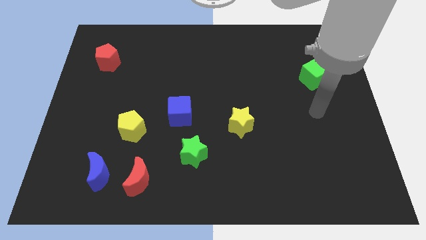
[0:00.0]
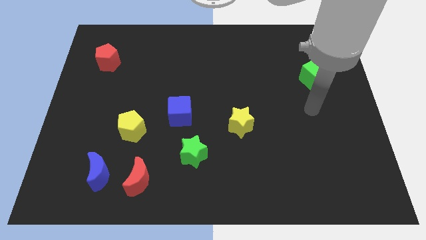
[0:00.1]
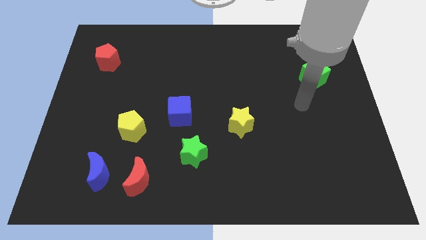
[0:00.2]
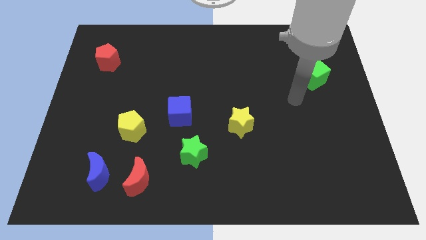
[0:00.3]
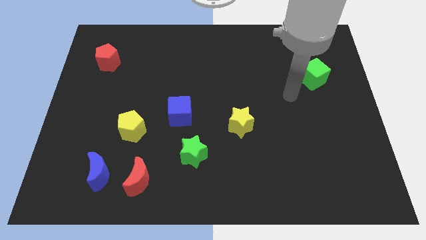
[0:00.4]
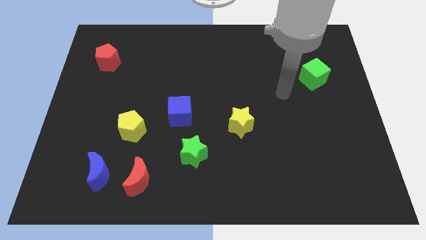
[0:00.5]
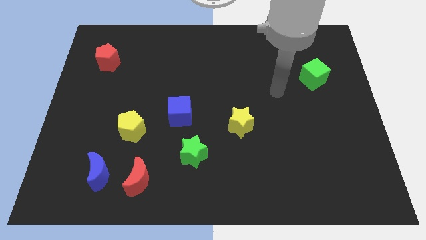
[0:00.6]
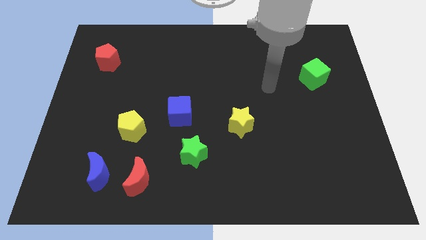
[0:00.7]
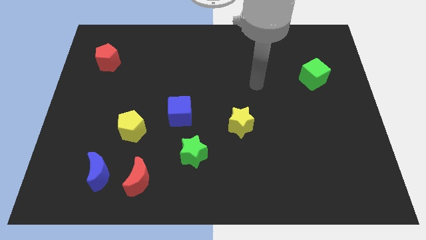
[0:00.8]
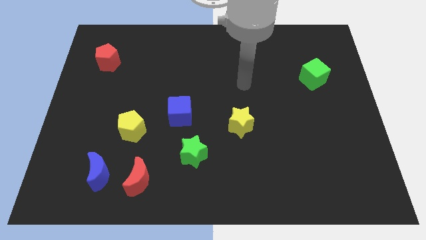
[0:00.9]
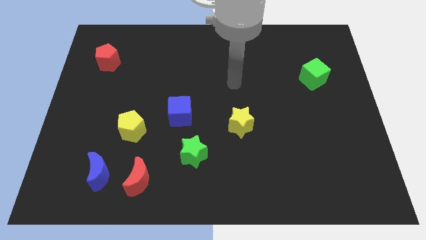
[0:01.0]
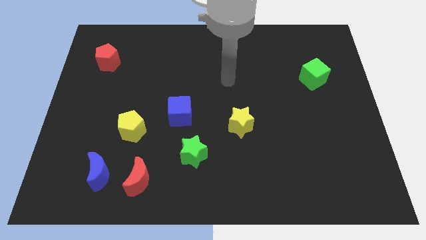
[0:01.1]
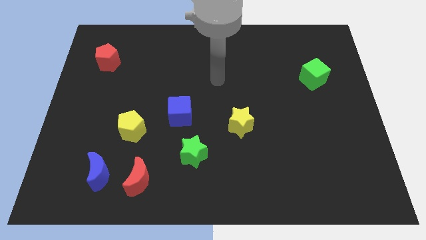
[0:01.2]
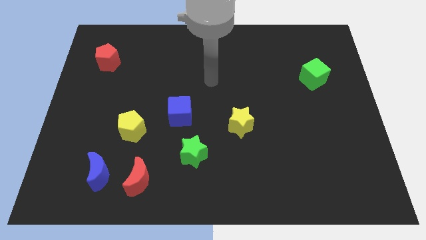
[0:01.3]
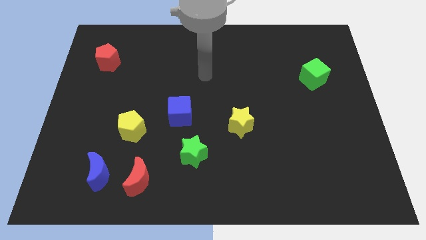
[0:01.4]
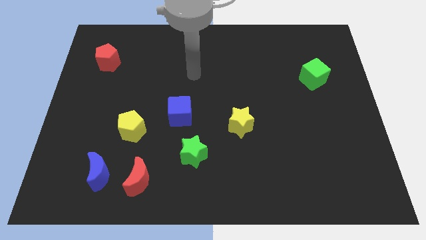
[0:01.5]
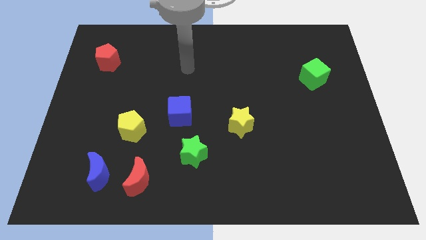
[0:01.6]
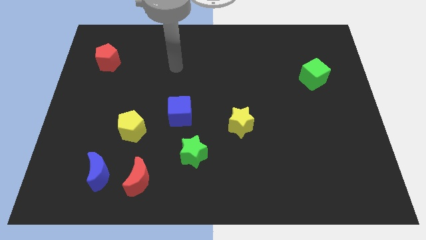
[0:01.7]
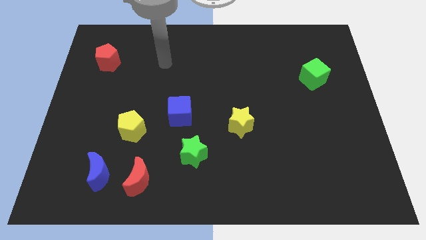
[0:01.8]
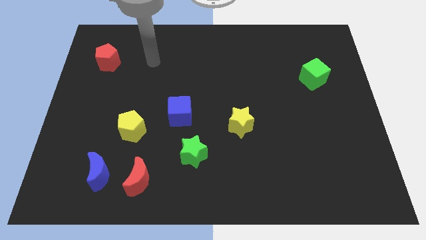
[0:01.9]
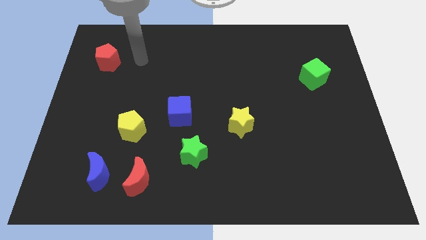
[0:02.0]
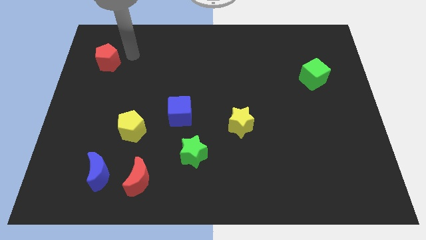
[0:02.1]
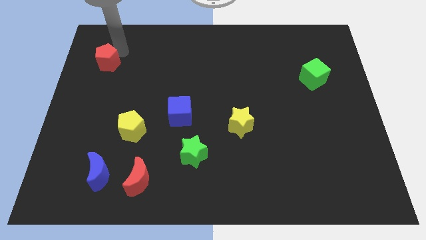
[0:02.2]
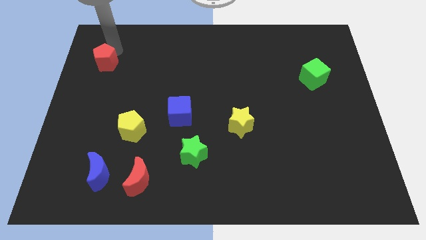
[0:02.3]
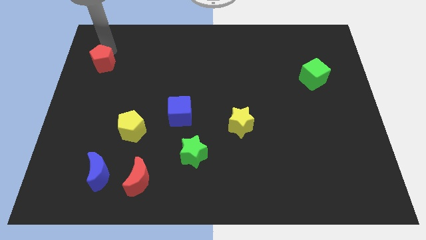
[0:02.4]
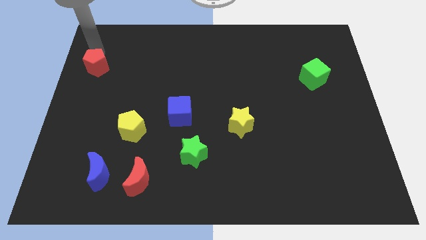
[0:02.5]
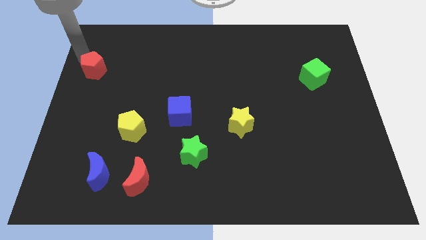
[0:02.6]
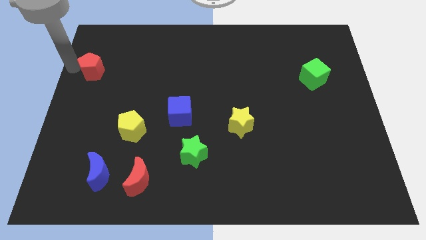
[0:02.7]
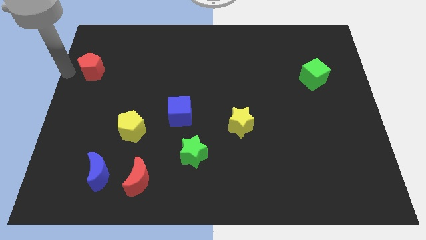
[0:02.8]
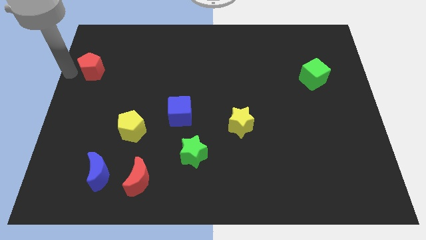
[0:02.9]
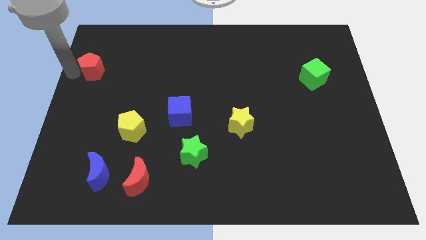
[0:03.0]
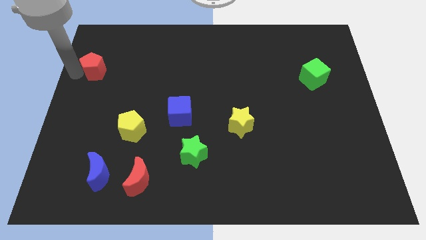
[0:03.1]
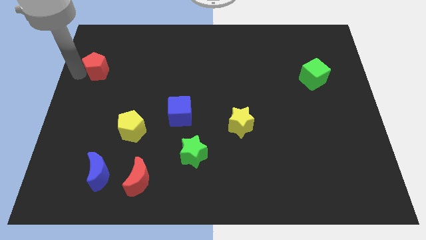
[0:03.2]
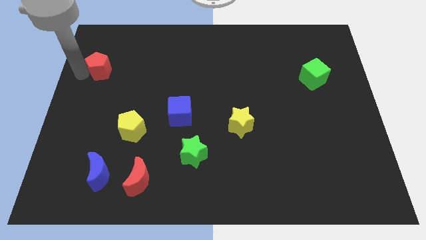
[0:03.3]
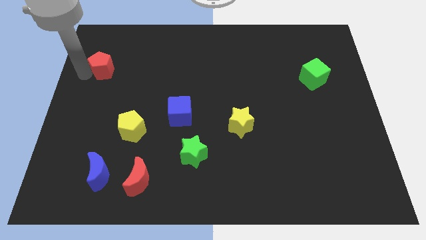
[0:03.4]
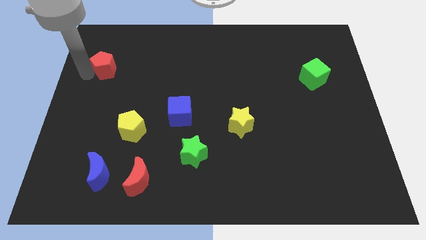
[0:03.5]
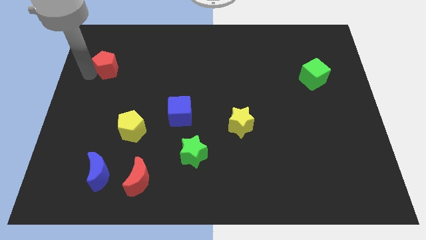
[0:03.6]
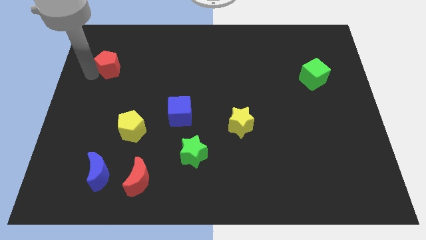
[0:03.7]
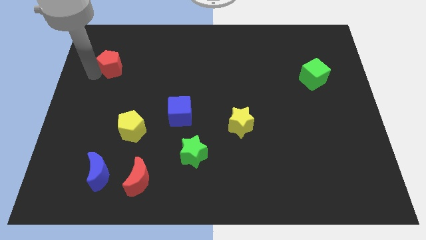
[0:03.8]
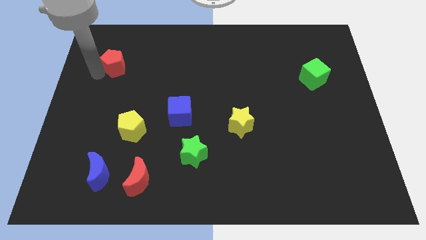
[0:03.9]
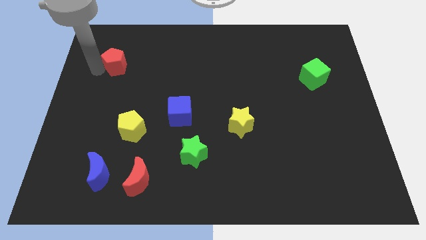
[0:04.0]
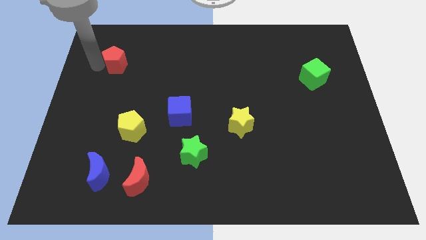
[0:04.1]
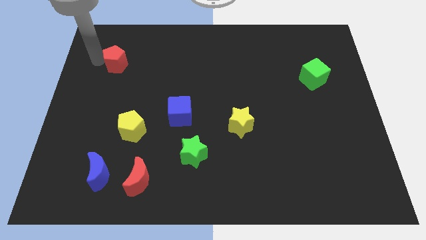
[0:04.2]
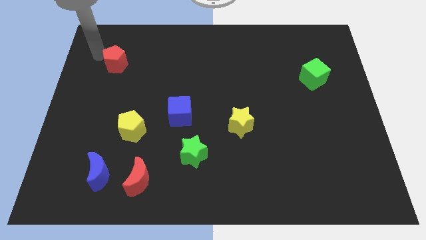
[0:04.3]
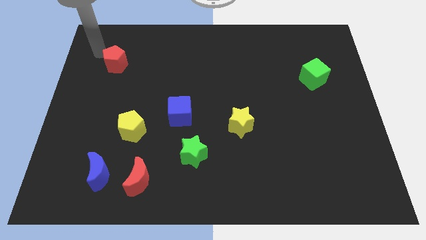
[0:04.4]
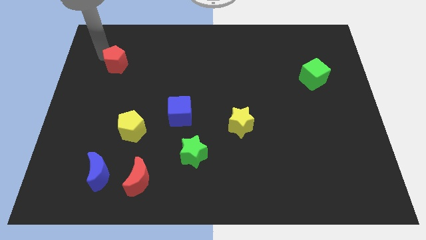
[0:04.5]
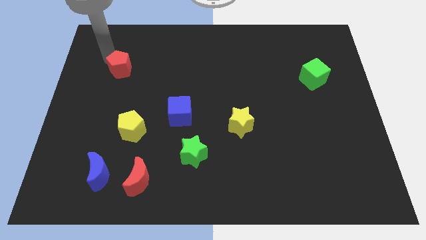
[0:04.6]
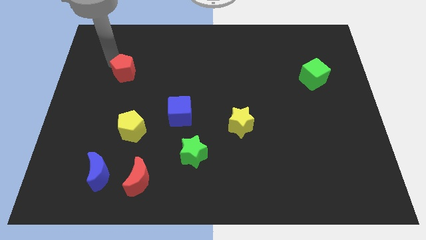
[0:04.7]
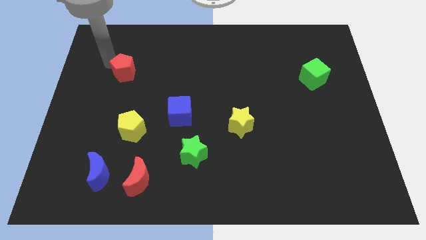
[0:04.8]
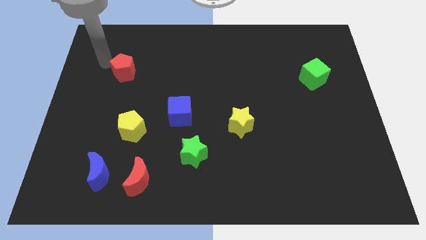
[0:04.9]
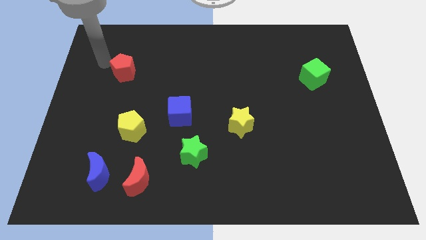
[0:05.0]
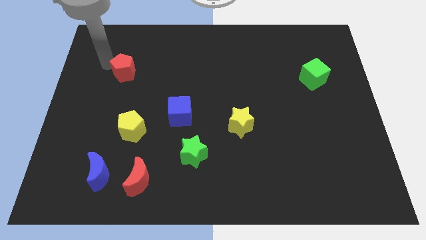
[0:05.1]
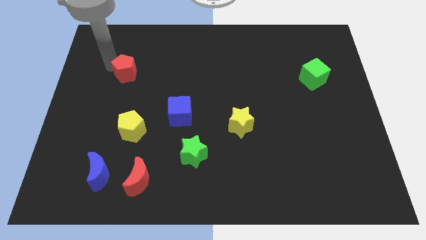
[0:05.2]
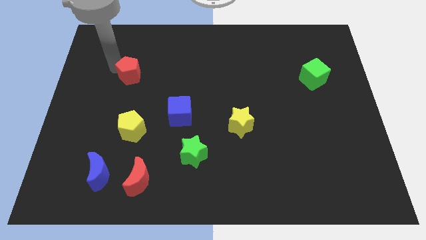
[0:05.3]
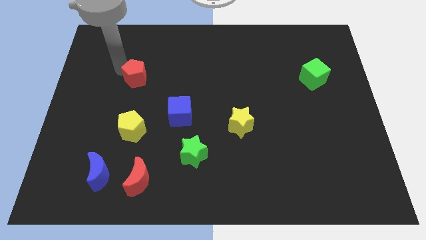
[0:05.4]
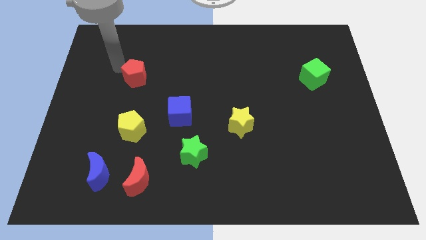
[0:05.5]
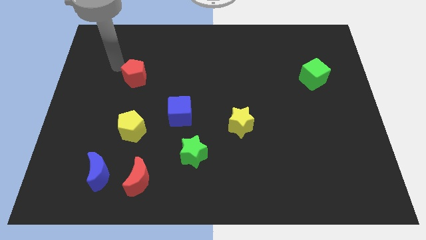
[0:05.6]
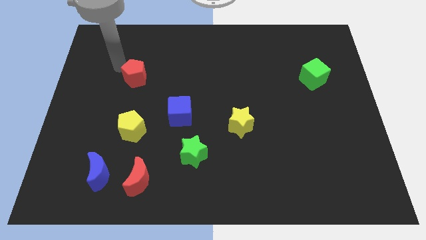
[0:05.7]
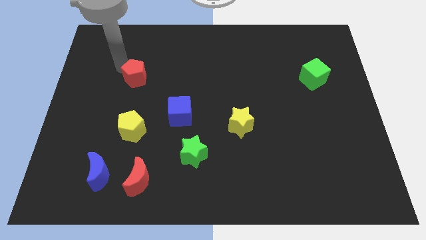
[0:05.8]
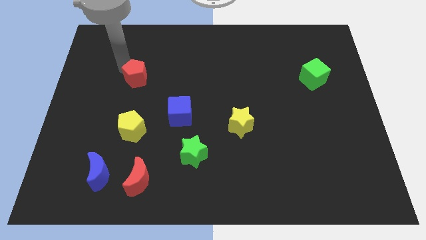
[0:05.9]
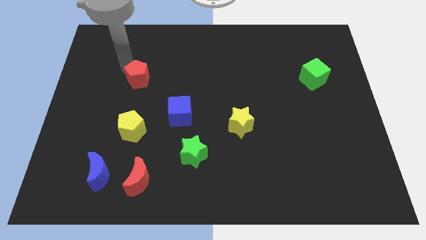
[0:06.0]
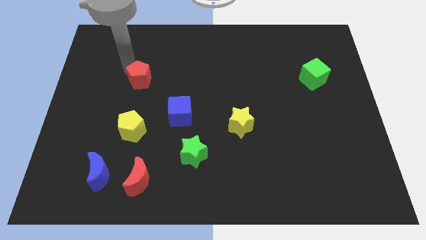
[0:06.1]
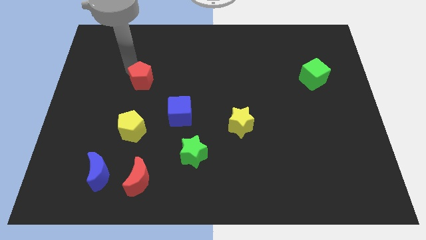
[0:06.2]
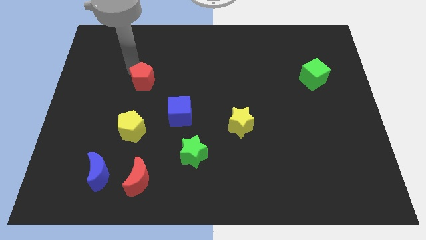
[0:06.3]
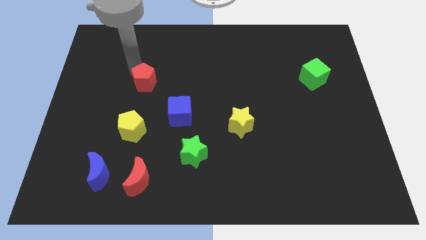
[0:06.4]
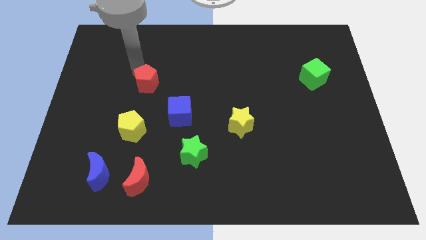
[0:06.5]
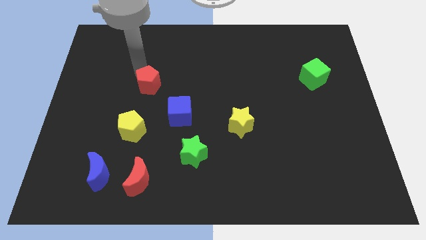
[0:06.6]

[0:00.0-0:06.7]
slide the red pentagon to the top left side of the blue cube

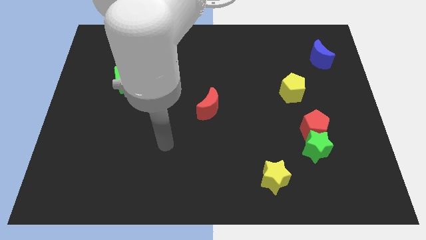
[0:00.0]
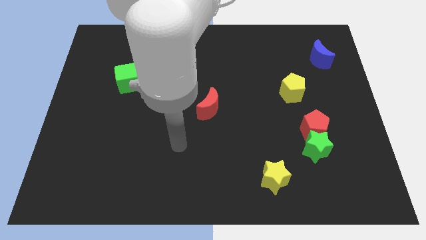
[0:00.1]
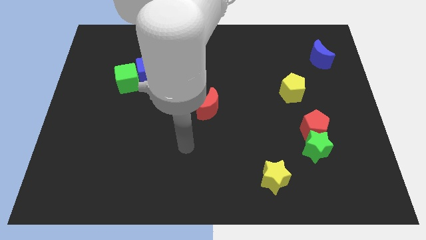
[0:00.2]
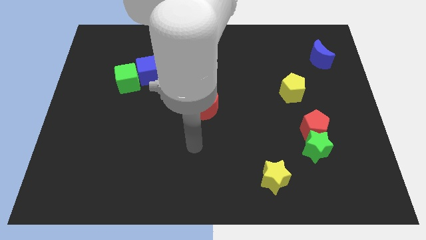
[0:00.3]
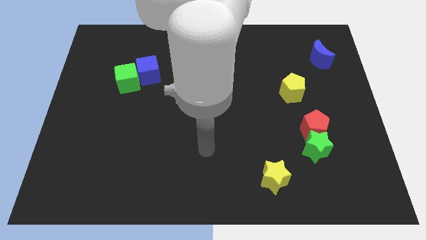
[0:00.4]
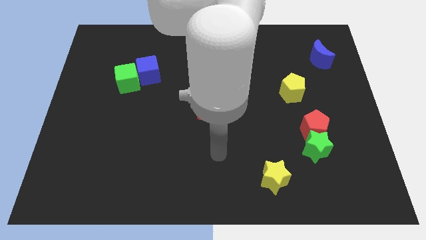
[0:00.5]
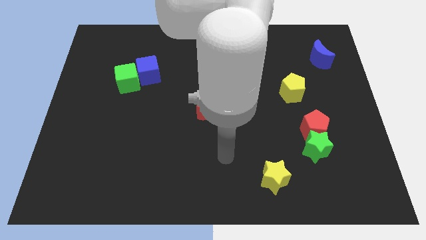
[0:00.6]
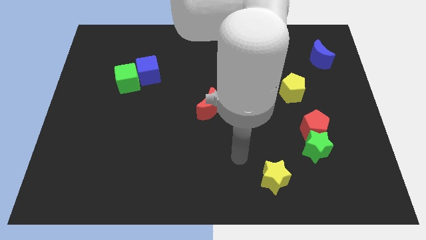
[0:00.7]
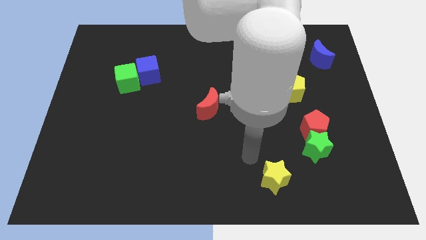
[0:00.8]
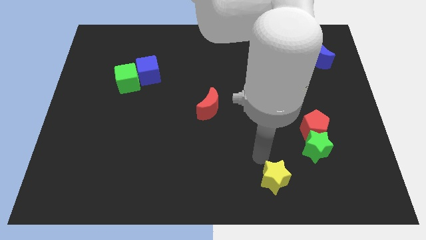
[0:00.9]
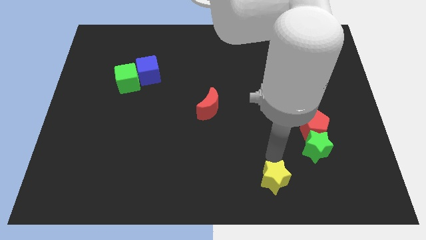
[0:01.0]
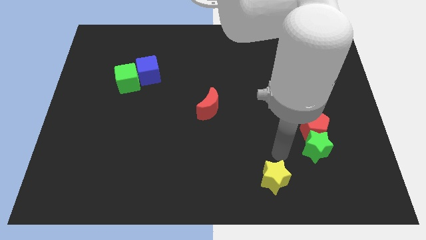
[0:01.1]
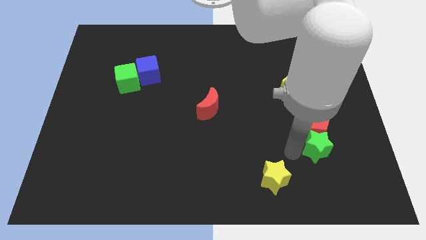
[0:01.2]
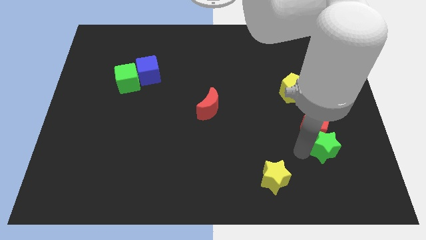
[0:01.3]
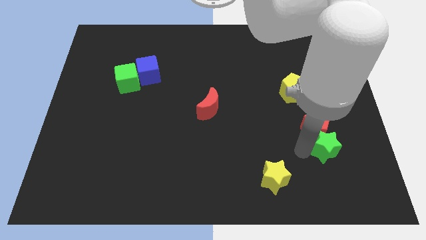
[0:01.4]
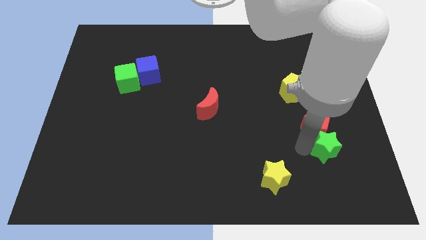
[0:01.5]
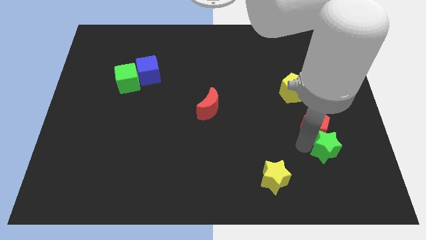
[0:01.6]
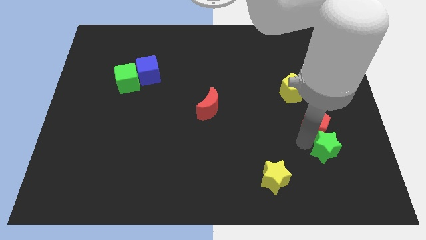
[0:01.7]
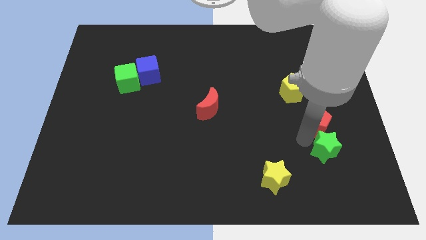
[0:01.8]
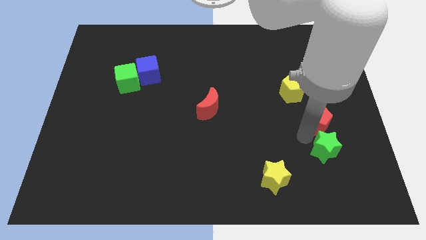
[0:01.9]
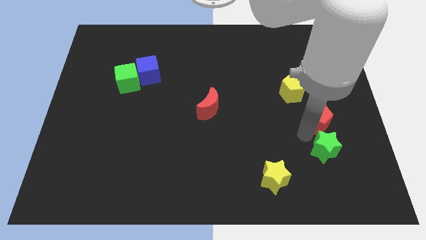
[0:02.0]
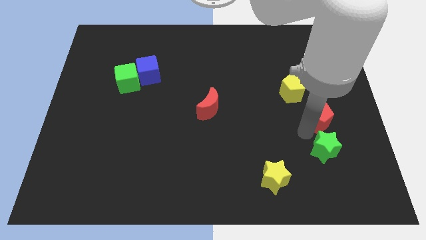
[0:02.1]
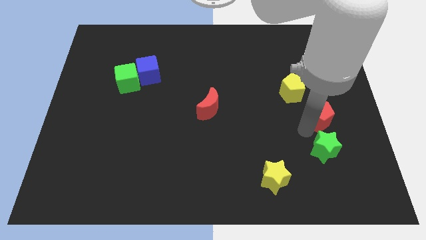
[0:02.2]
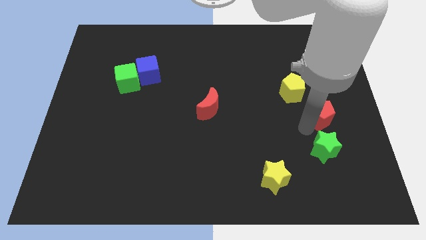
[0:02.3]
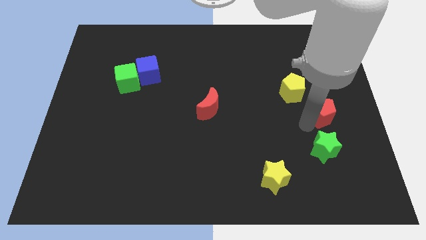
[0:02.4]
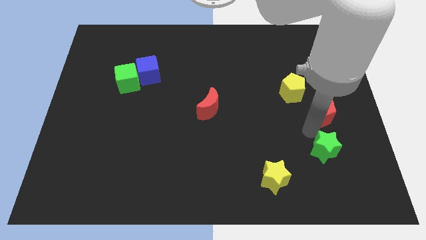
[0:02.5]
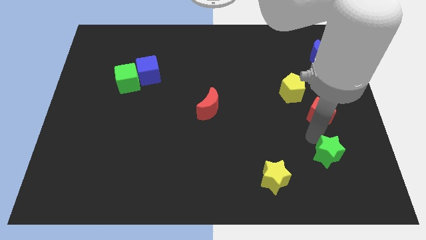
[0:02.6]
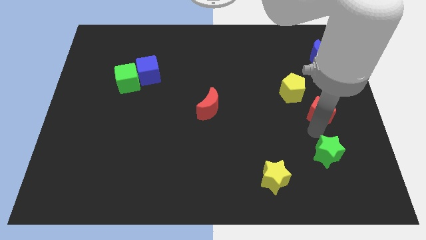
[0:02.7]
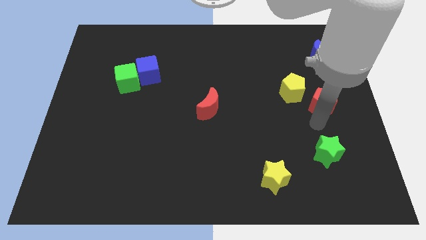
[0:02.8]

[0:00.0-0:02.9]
slide the red pentagon below the blue moon
